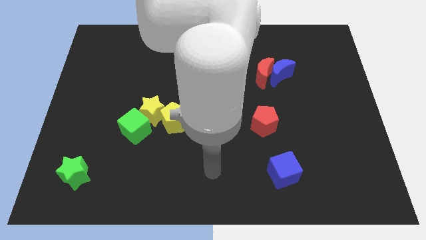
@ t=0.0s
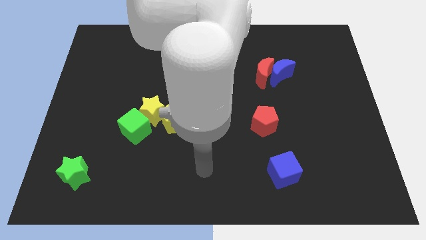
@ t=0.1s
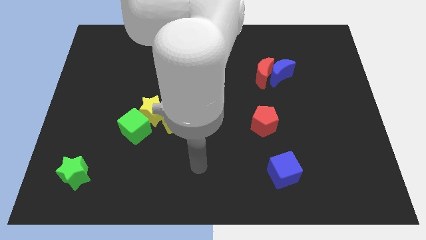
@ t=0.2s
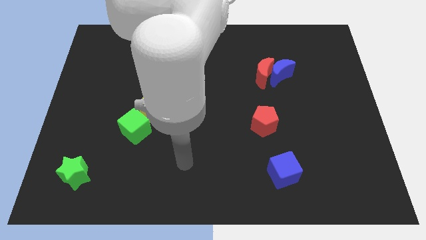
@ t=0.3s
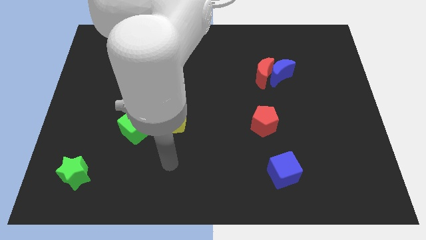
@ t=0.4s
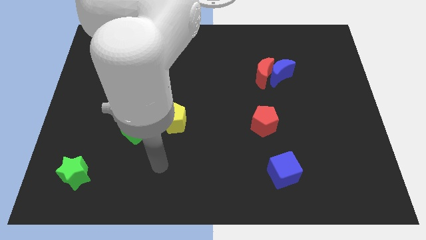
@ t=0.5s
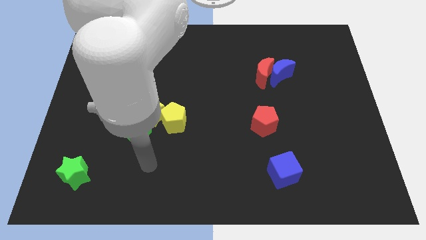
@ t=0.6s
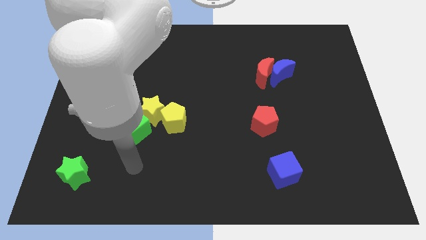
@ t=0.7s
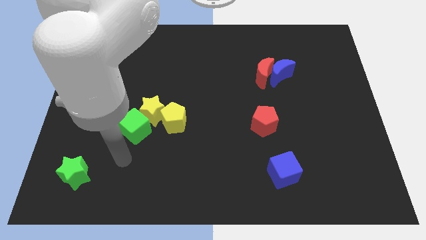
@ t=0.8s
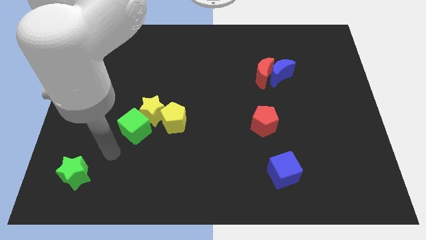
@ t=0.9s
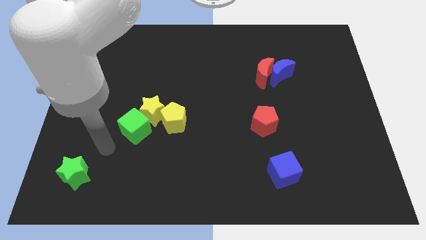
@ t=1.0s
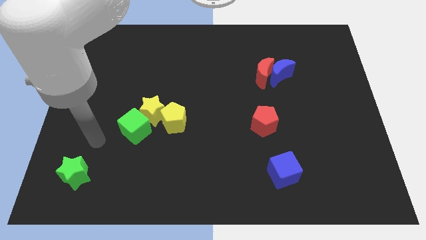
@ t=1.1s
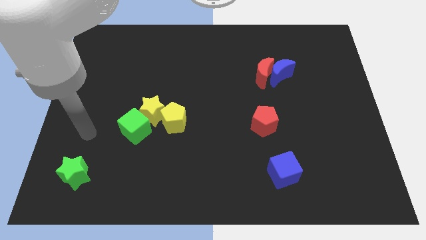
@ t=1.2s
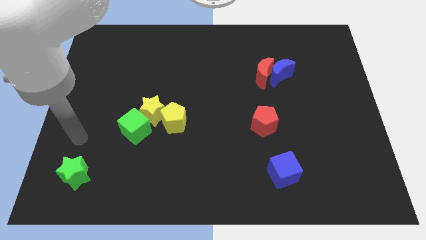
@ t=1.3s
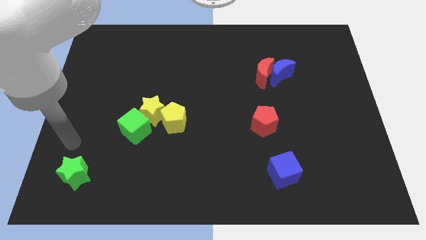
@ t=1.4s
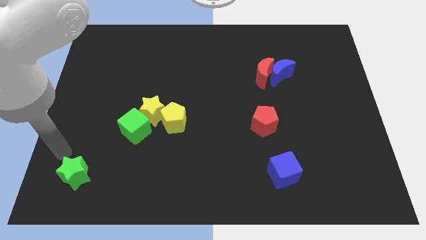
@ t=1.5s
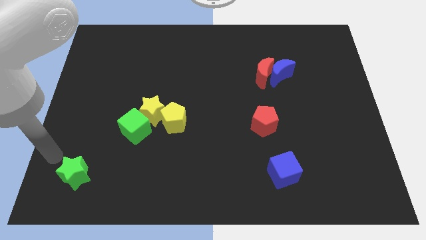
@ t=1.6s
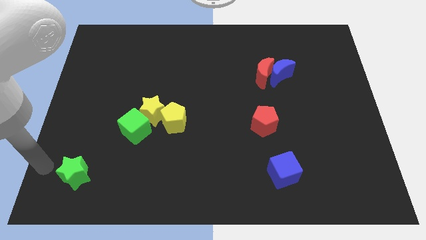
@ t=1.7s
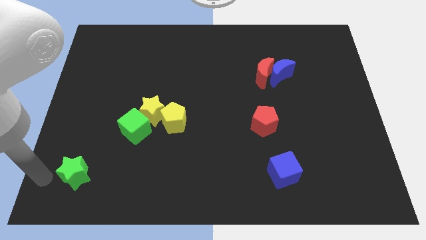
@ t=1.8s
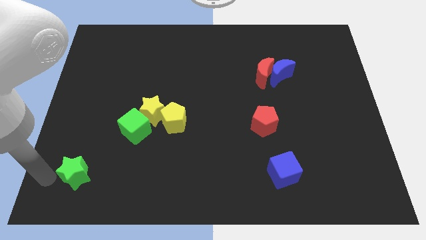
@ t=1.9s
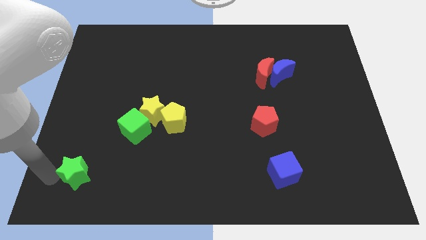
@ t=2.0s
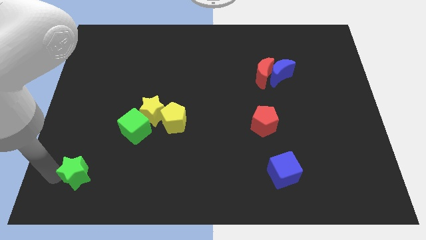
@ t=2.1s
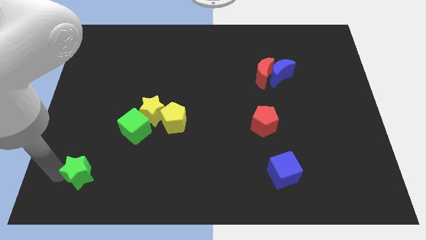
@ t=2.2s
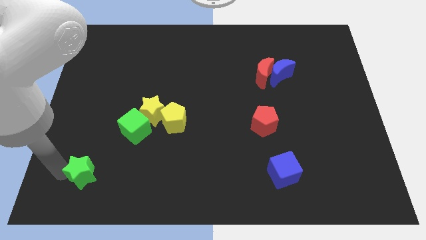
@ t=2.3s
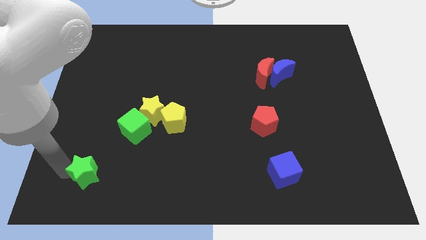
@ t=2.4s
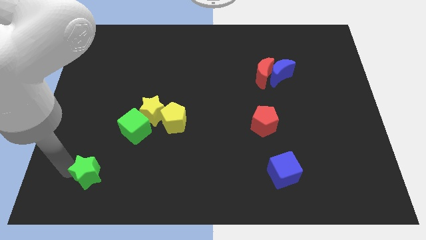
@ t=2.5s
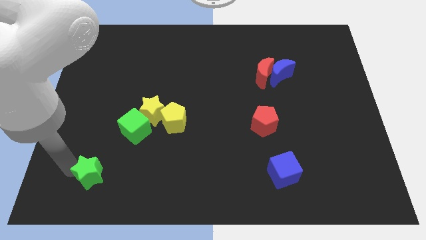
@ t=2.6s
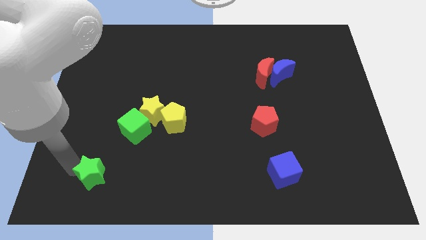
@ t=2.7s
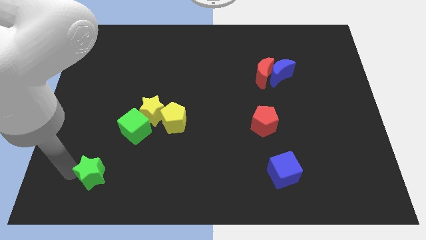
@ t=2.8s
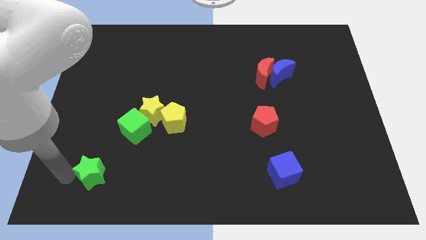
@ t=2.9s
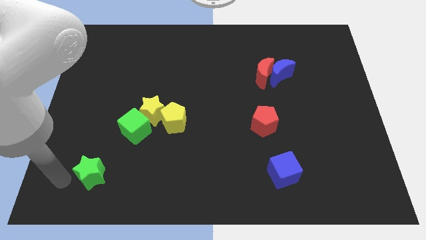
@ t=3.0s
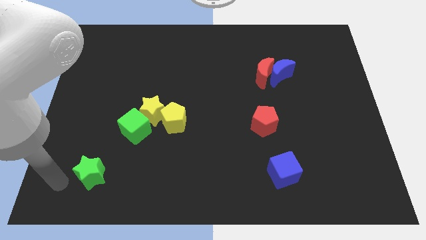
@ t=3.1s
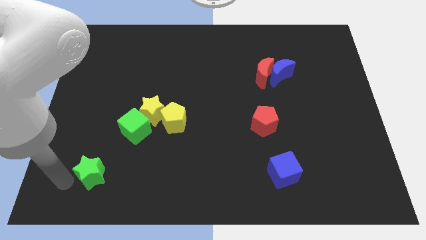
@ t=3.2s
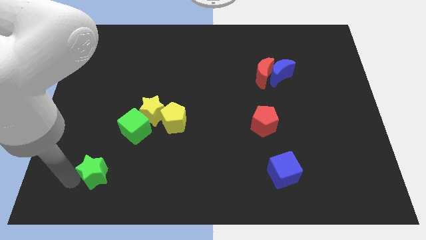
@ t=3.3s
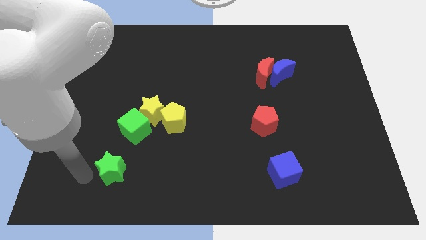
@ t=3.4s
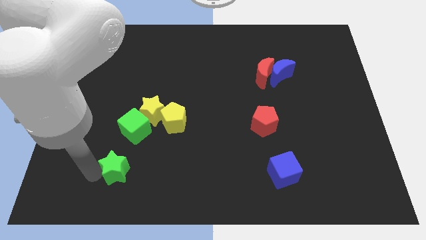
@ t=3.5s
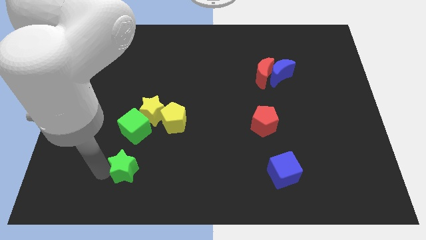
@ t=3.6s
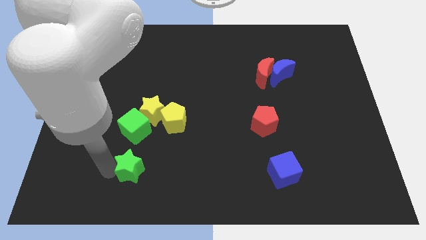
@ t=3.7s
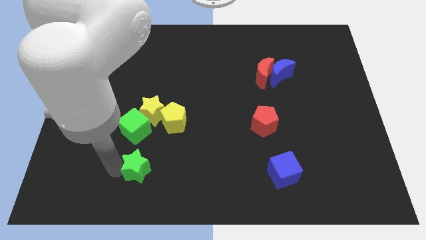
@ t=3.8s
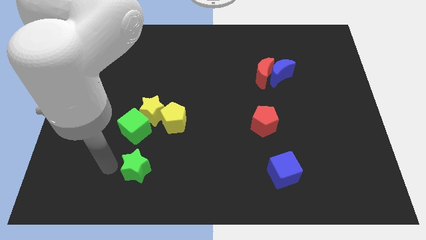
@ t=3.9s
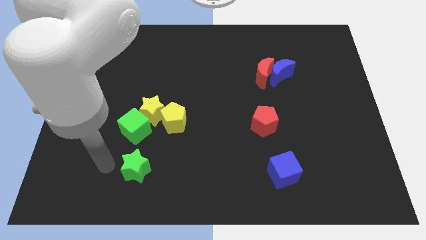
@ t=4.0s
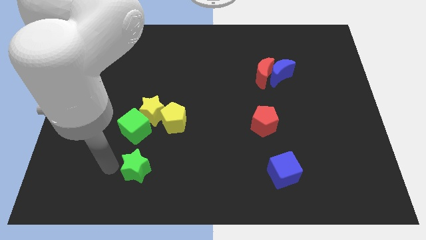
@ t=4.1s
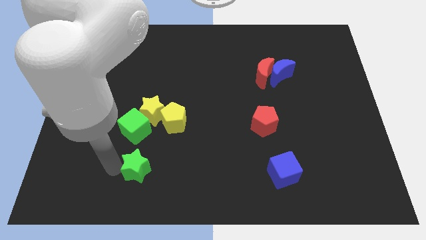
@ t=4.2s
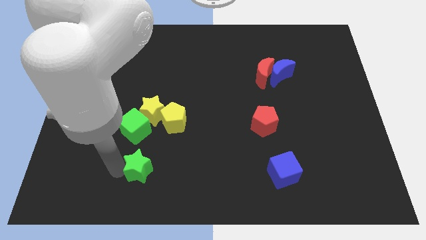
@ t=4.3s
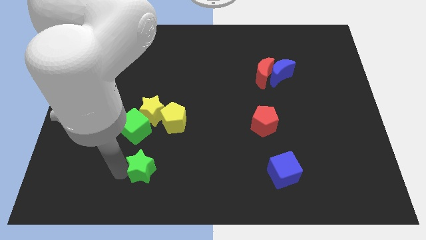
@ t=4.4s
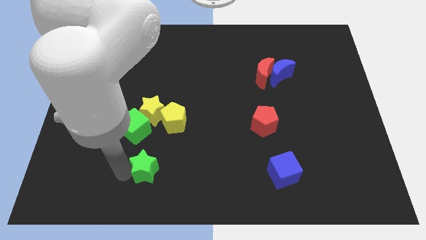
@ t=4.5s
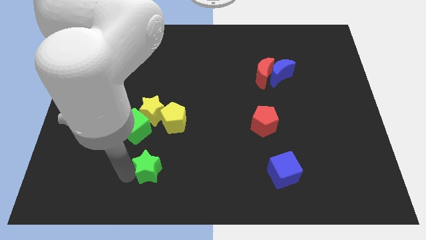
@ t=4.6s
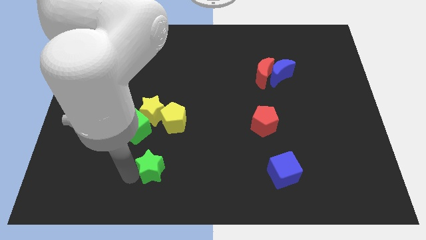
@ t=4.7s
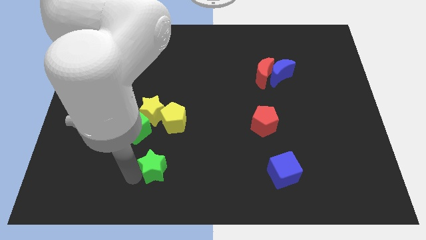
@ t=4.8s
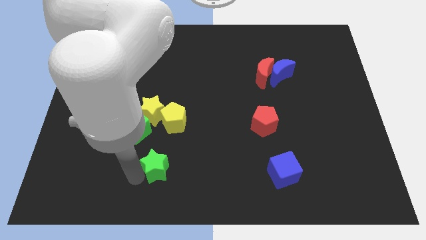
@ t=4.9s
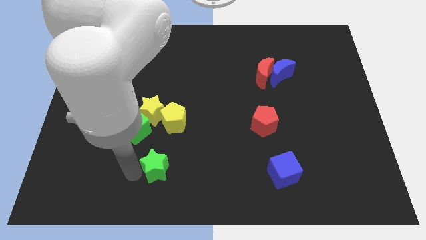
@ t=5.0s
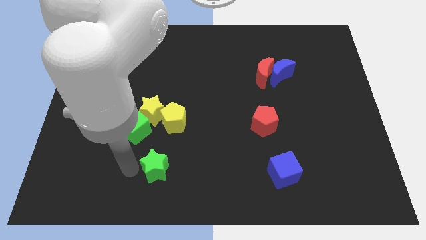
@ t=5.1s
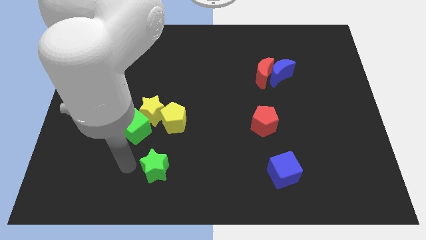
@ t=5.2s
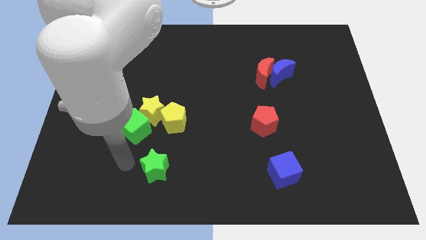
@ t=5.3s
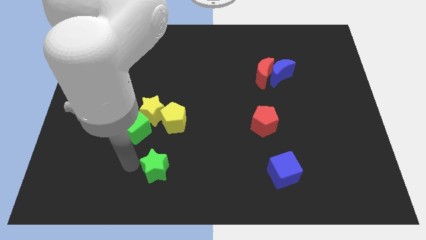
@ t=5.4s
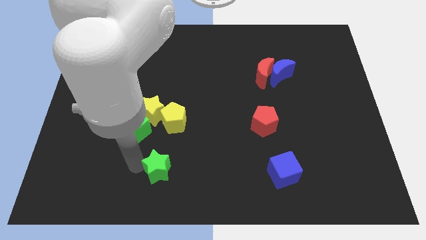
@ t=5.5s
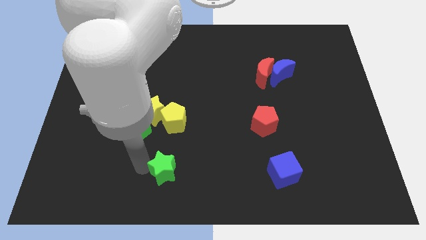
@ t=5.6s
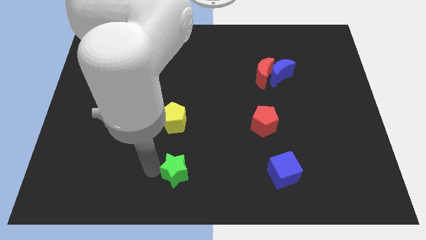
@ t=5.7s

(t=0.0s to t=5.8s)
push the green star to the right

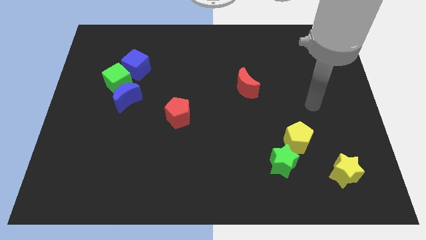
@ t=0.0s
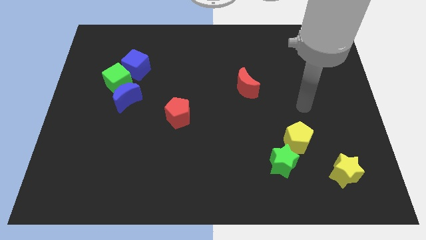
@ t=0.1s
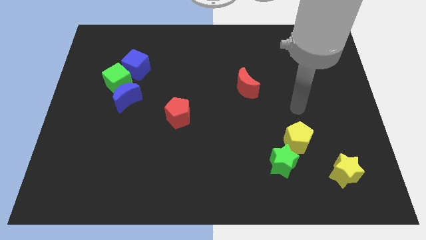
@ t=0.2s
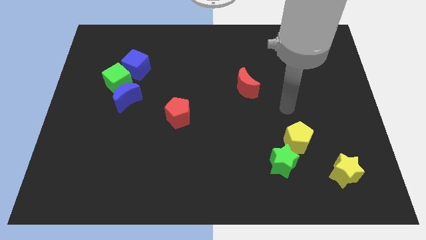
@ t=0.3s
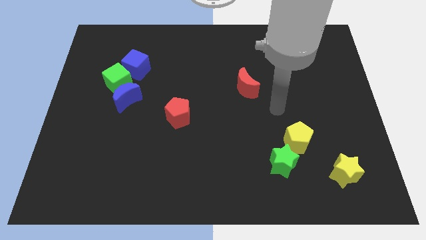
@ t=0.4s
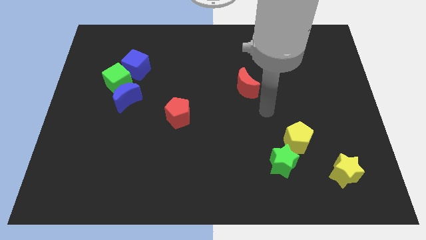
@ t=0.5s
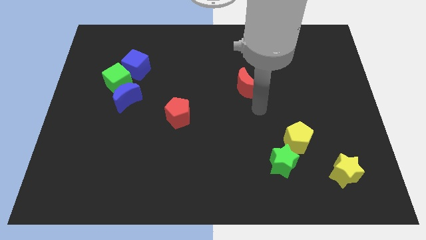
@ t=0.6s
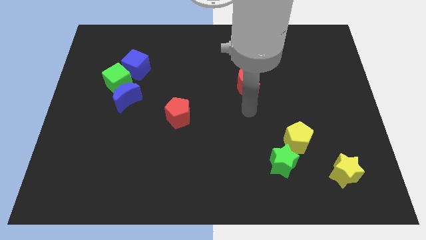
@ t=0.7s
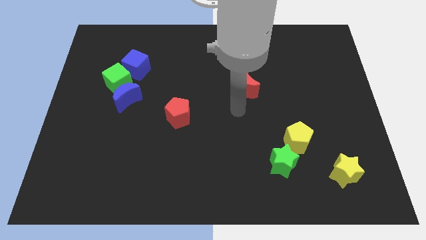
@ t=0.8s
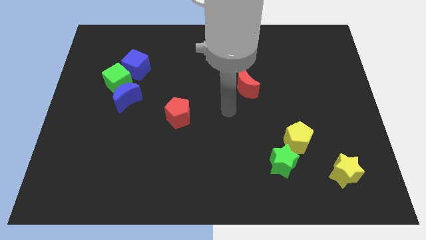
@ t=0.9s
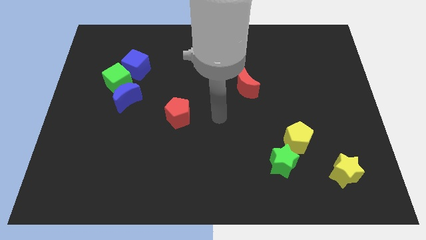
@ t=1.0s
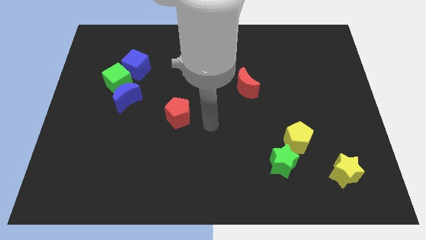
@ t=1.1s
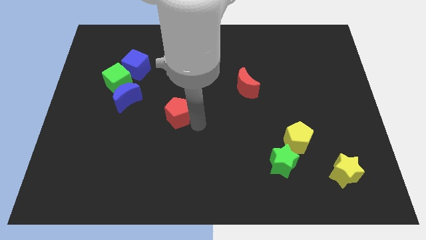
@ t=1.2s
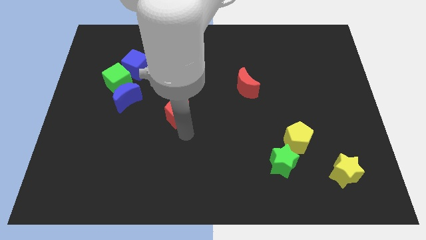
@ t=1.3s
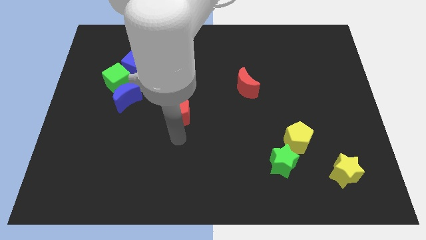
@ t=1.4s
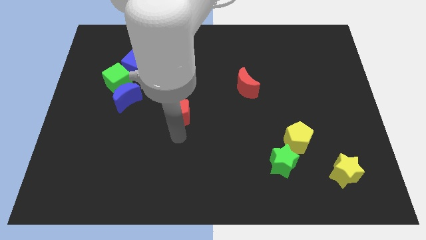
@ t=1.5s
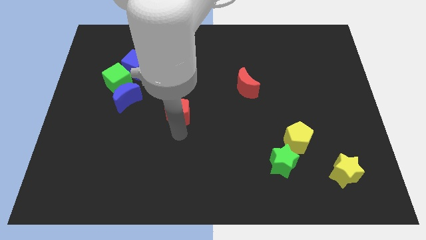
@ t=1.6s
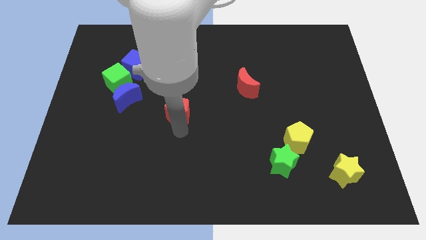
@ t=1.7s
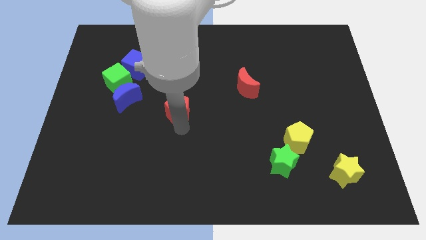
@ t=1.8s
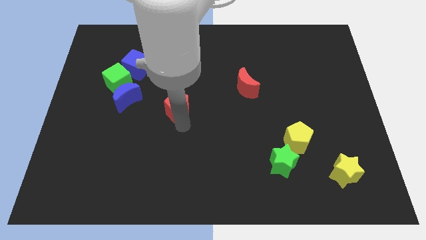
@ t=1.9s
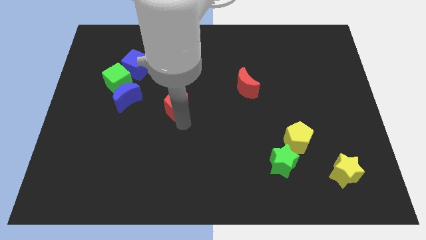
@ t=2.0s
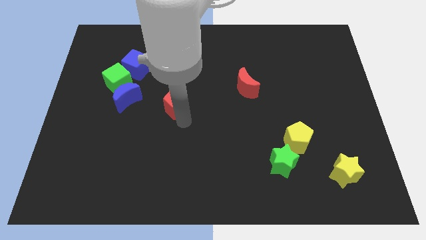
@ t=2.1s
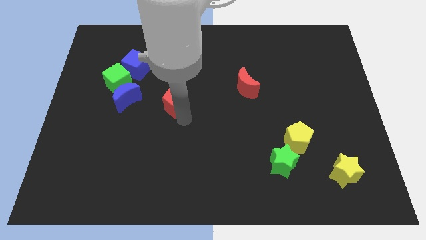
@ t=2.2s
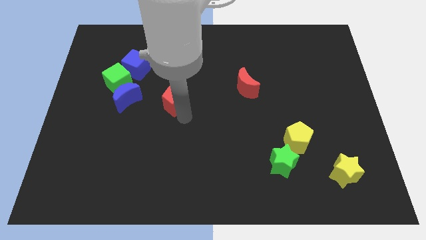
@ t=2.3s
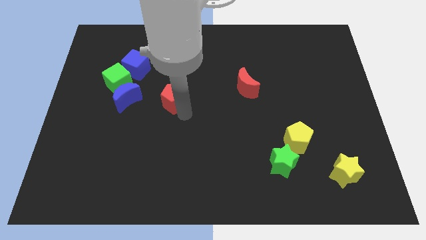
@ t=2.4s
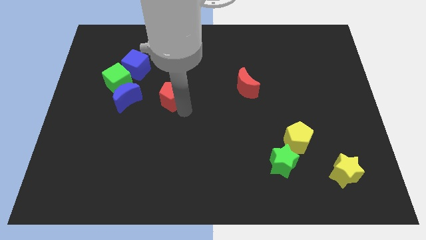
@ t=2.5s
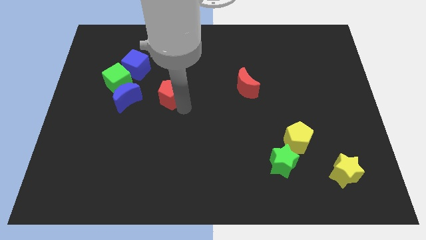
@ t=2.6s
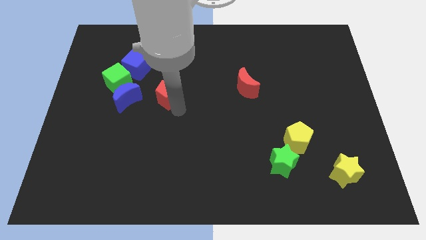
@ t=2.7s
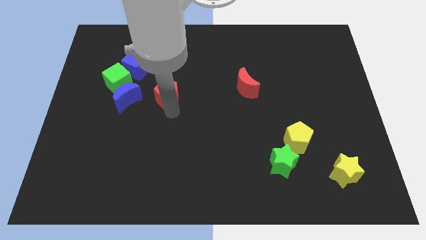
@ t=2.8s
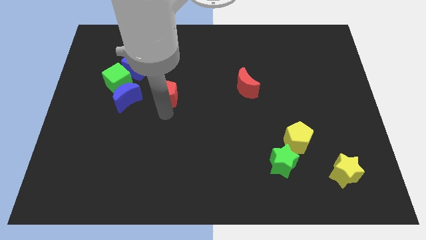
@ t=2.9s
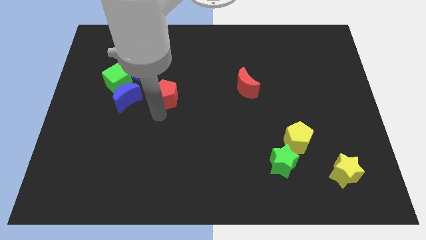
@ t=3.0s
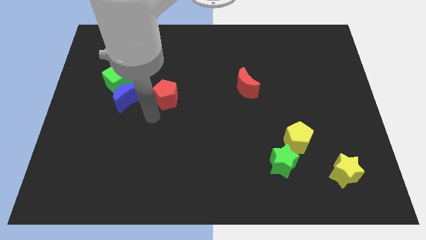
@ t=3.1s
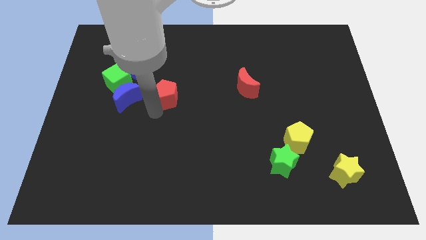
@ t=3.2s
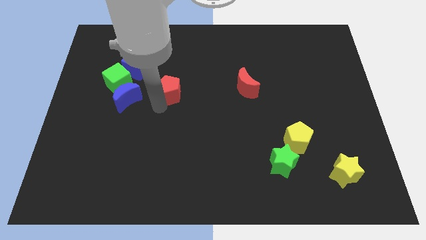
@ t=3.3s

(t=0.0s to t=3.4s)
move the red pentagon a little bit upwards
